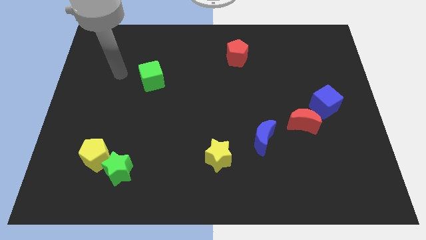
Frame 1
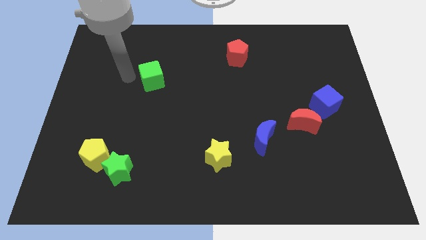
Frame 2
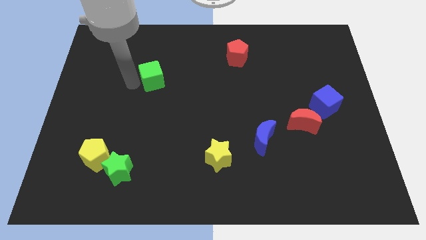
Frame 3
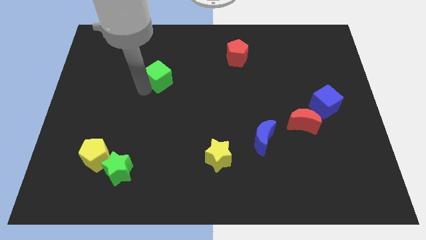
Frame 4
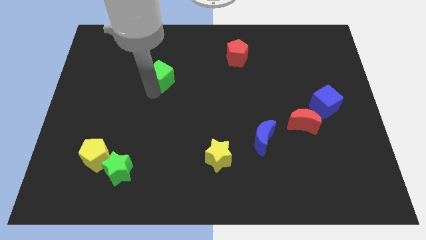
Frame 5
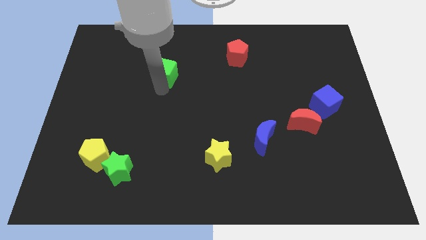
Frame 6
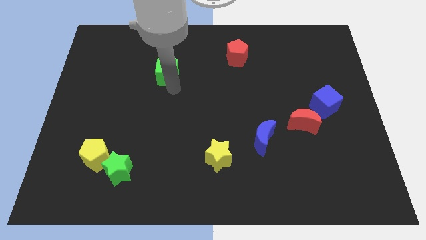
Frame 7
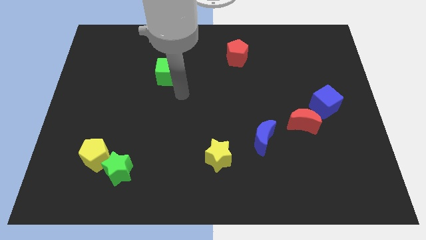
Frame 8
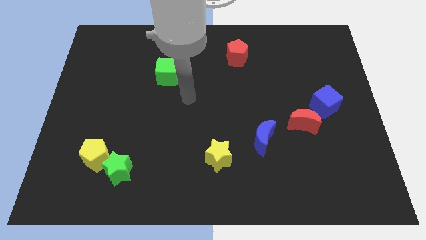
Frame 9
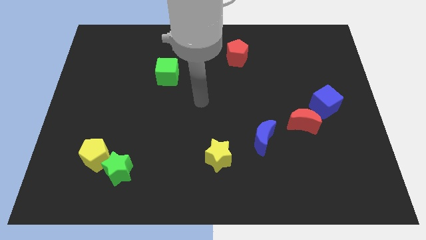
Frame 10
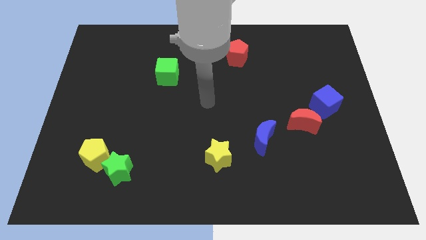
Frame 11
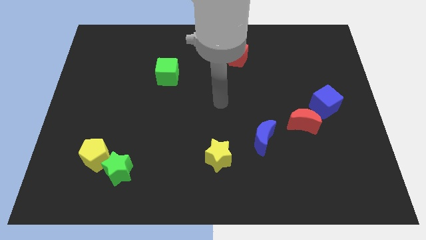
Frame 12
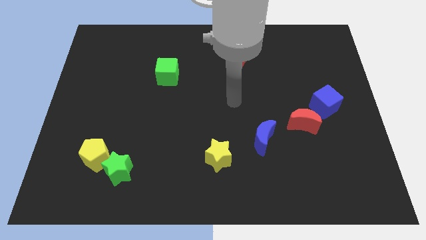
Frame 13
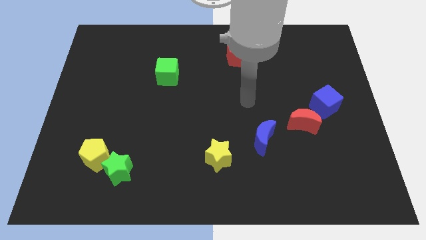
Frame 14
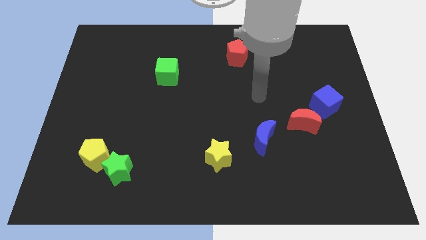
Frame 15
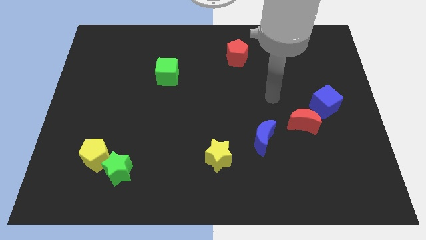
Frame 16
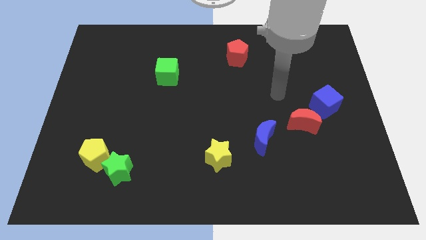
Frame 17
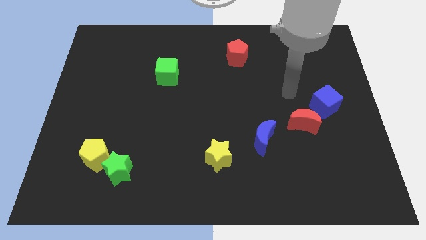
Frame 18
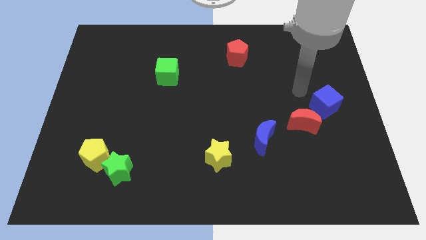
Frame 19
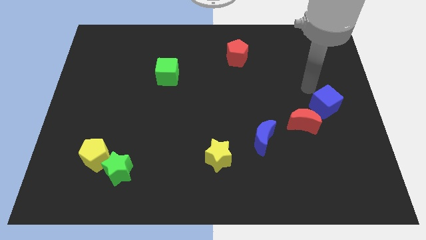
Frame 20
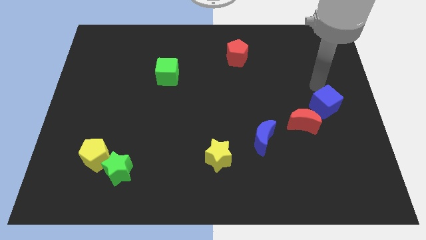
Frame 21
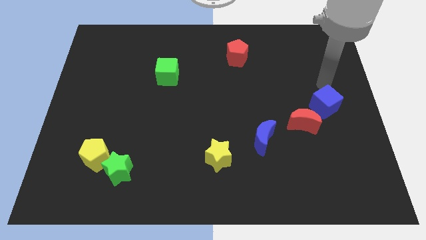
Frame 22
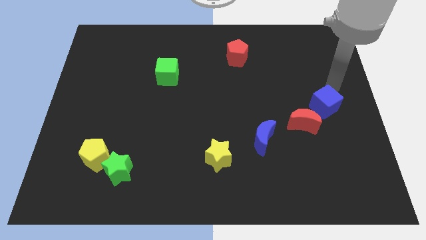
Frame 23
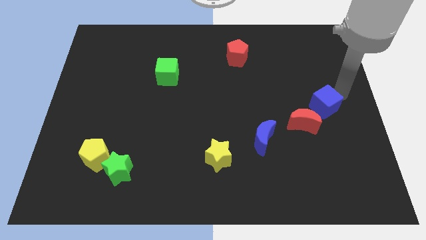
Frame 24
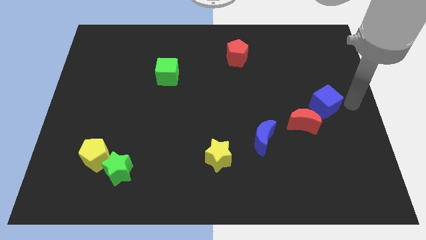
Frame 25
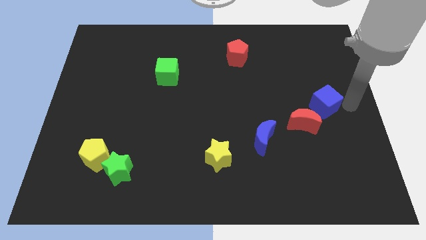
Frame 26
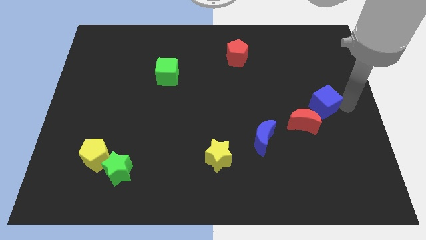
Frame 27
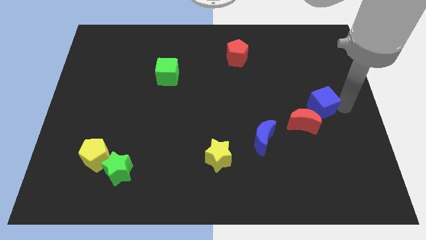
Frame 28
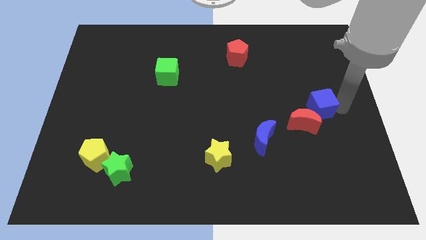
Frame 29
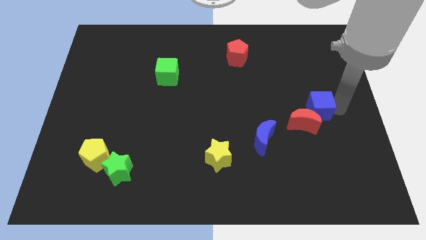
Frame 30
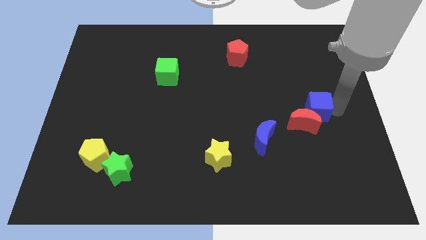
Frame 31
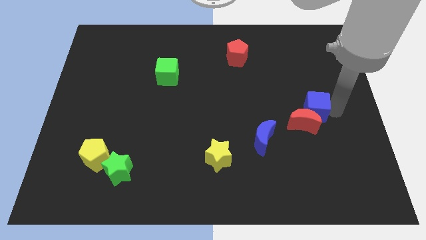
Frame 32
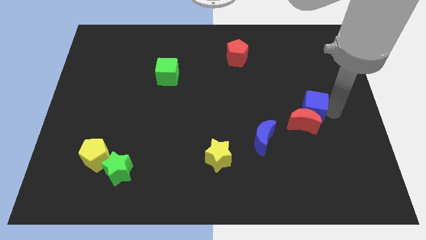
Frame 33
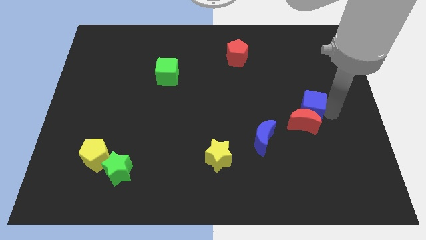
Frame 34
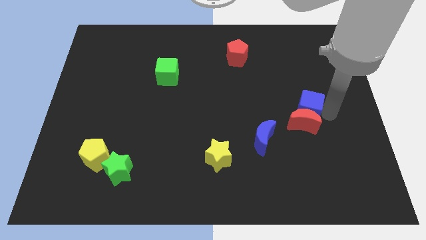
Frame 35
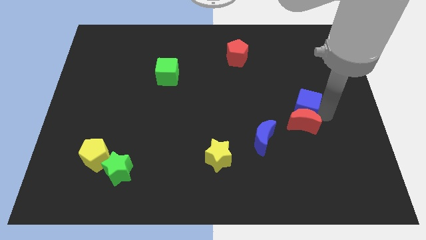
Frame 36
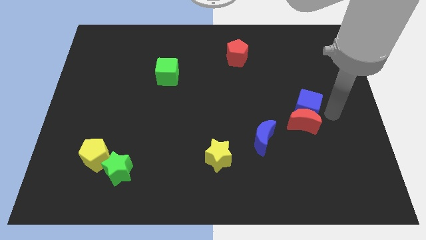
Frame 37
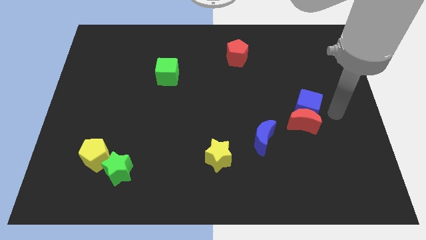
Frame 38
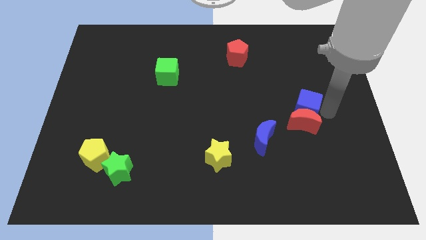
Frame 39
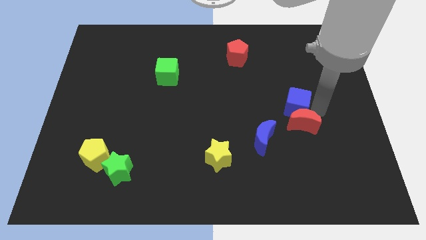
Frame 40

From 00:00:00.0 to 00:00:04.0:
move the blue cube to the left a bit

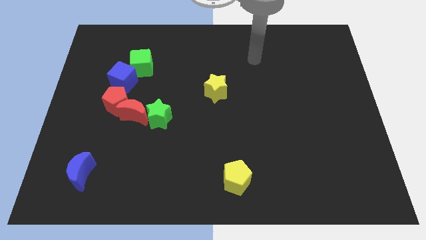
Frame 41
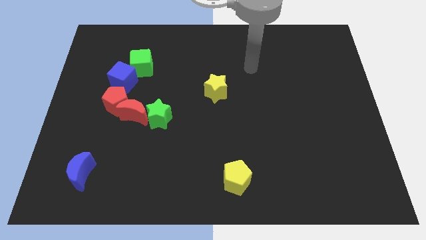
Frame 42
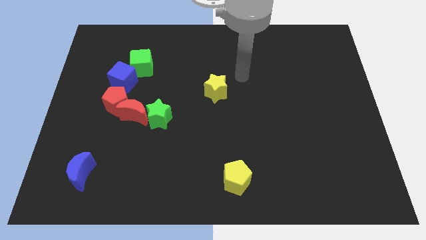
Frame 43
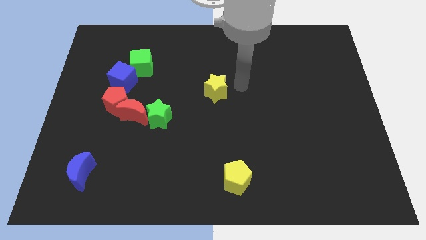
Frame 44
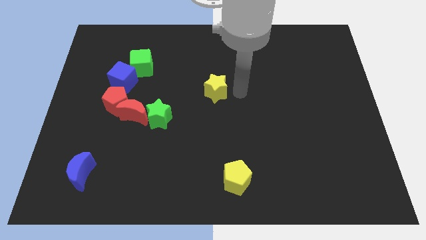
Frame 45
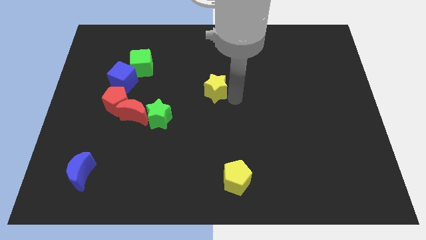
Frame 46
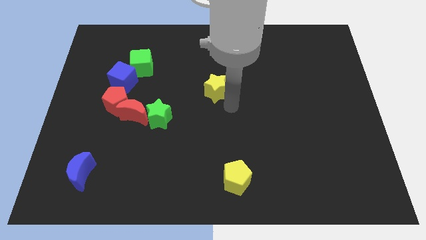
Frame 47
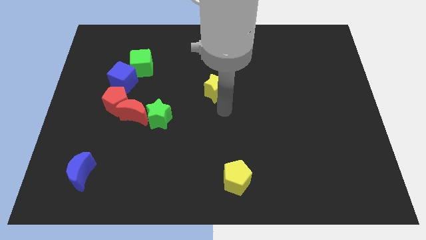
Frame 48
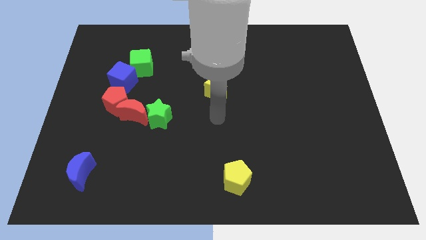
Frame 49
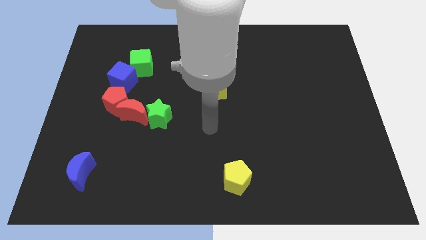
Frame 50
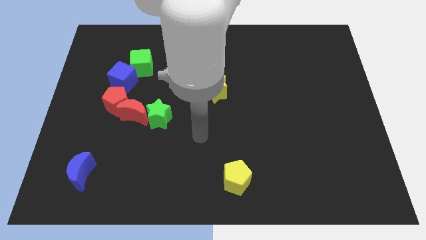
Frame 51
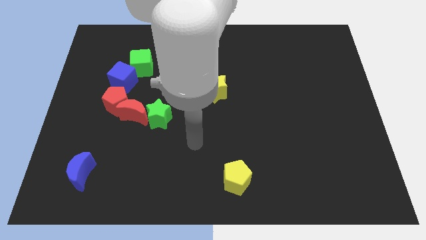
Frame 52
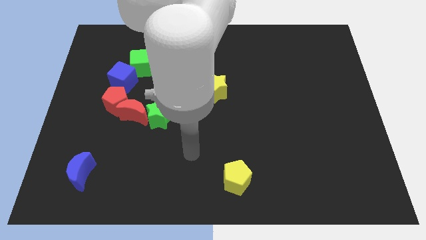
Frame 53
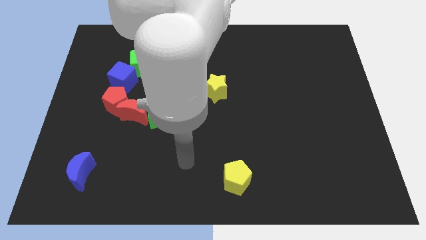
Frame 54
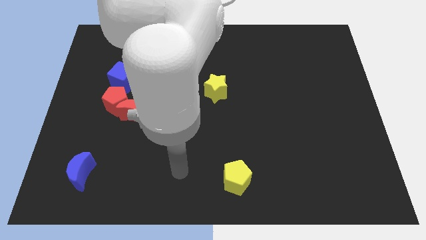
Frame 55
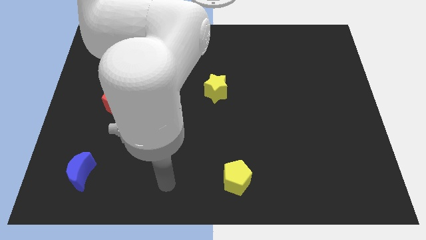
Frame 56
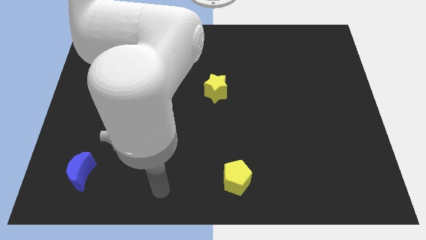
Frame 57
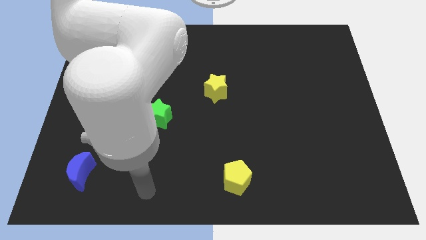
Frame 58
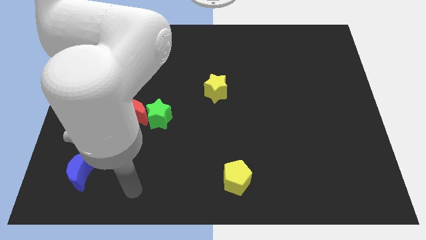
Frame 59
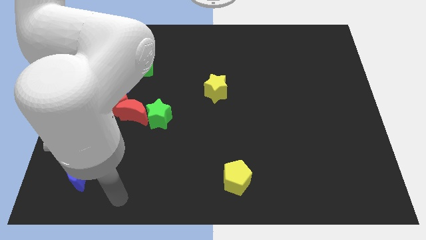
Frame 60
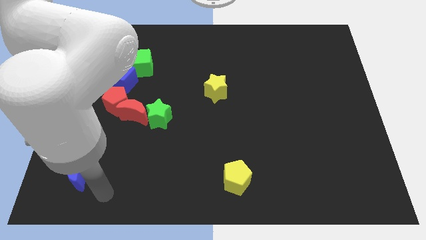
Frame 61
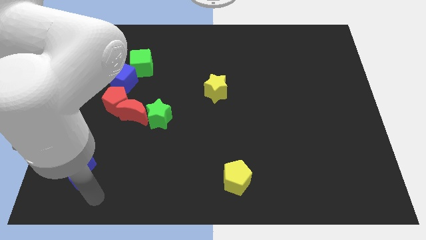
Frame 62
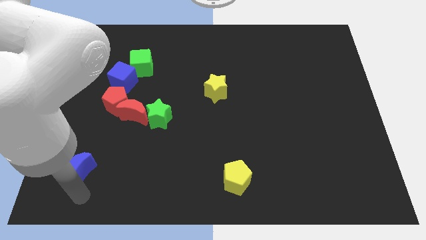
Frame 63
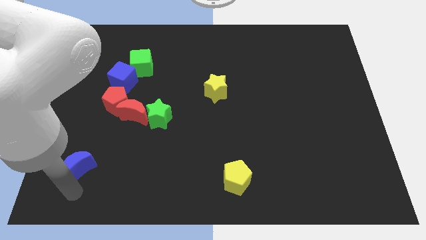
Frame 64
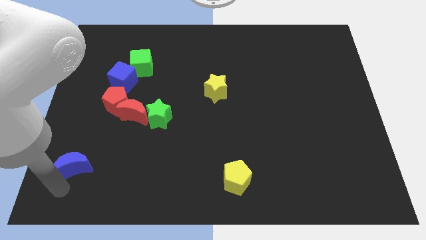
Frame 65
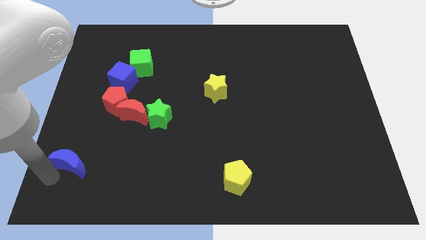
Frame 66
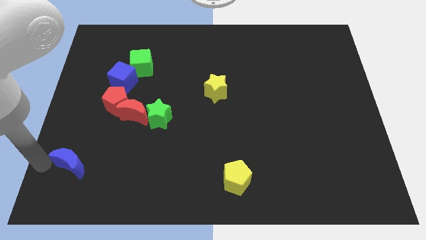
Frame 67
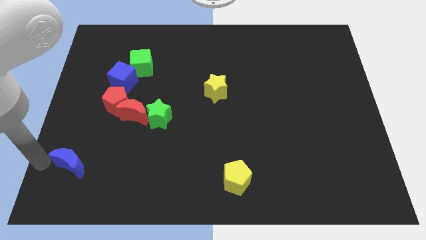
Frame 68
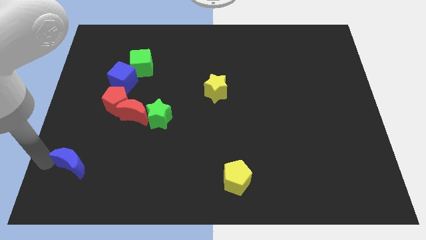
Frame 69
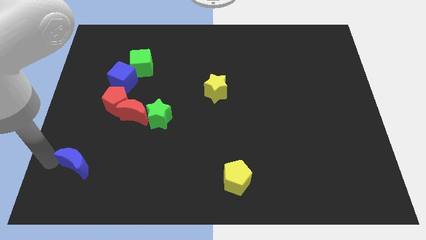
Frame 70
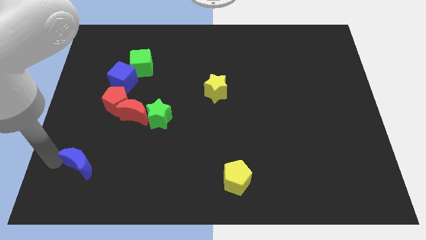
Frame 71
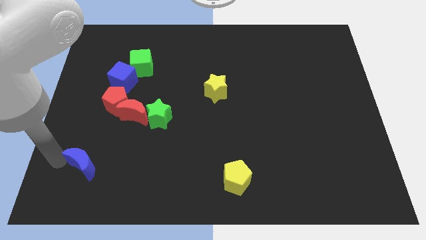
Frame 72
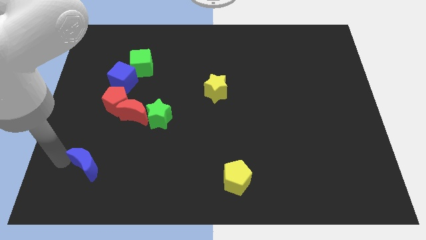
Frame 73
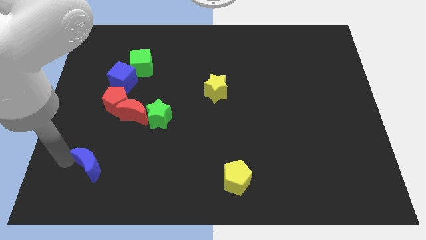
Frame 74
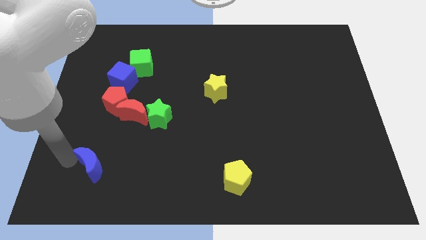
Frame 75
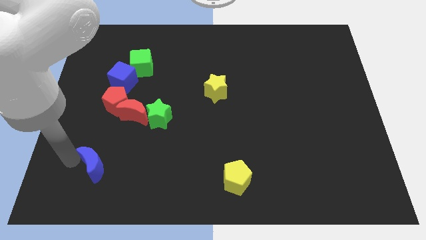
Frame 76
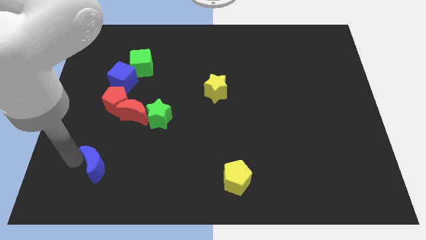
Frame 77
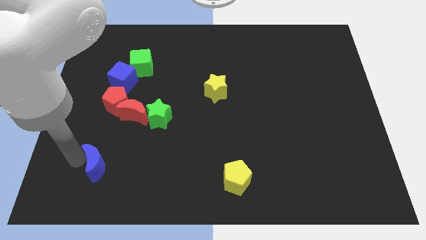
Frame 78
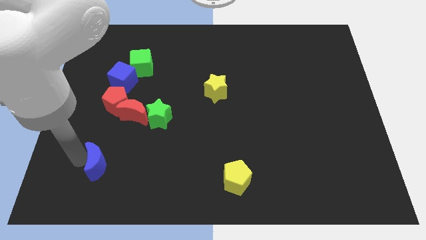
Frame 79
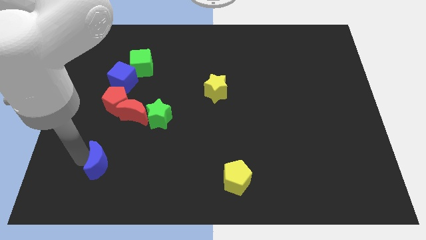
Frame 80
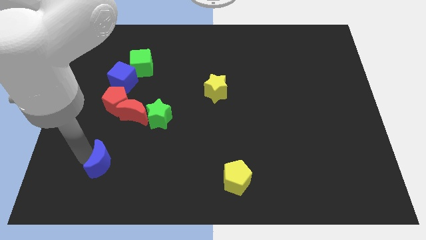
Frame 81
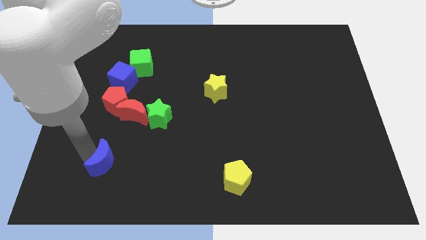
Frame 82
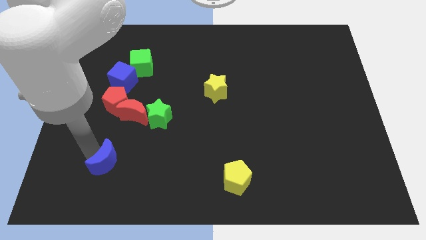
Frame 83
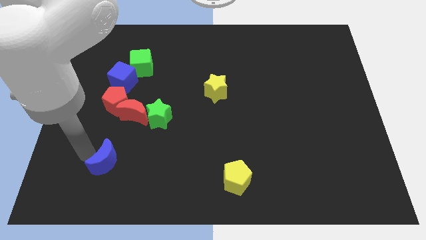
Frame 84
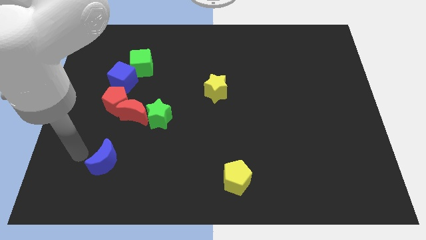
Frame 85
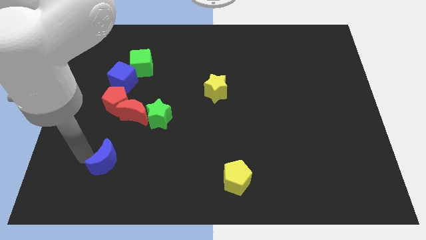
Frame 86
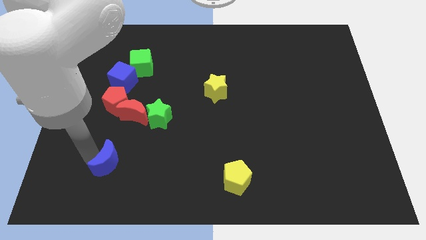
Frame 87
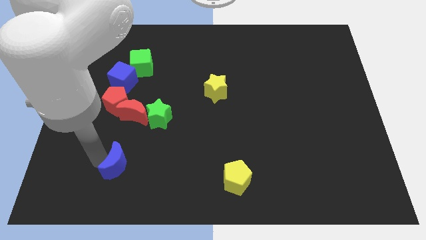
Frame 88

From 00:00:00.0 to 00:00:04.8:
move the blue moon to the right somewhat
